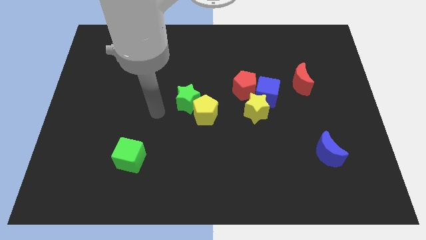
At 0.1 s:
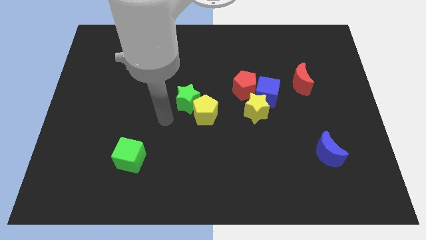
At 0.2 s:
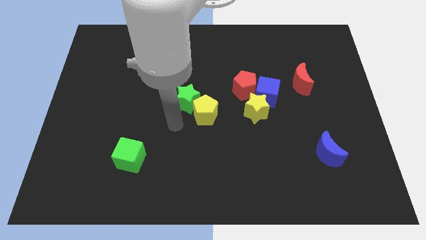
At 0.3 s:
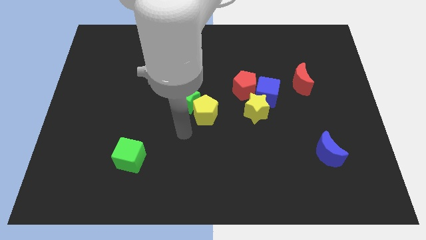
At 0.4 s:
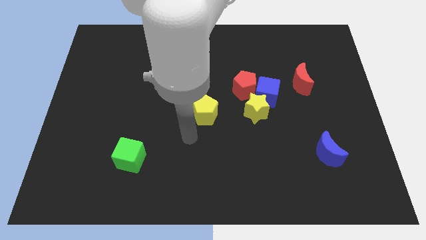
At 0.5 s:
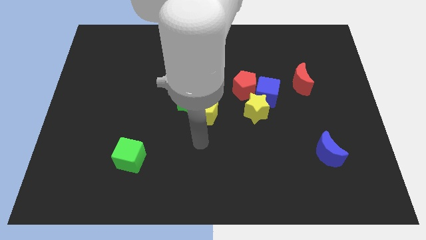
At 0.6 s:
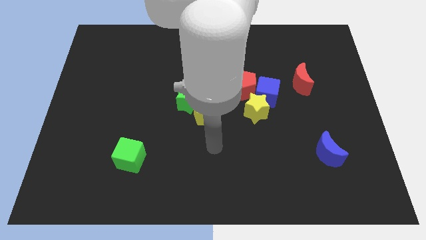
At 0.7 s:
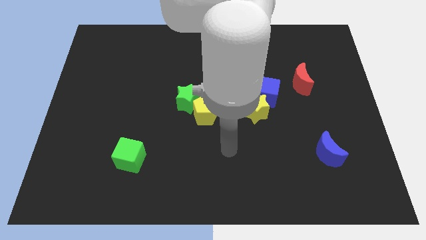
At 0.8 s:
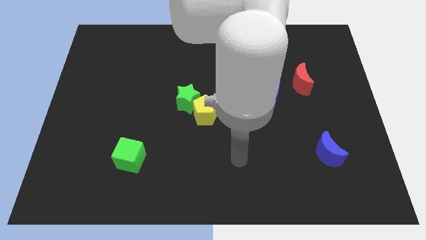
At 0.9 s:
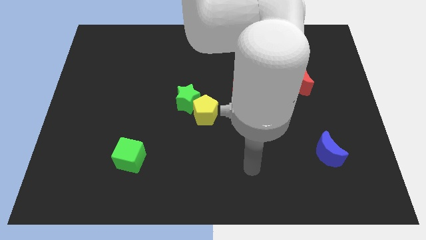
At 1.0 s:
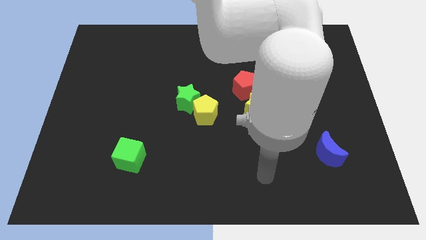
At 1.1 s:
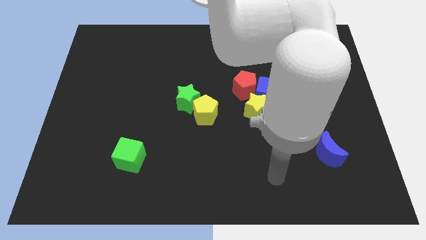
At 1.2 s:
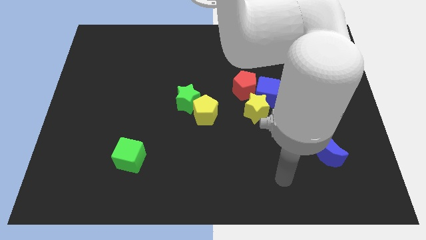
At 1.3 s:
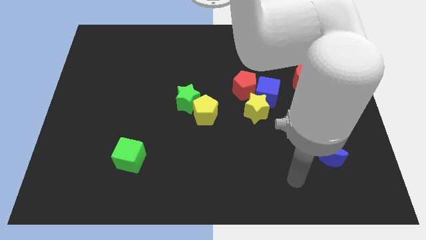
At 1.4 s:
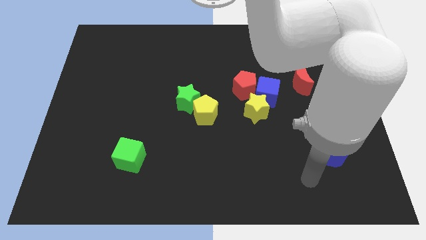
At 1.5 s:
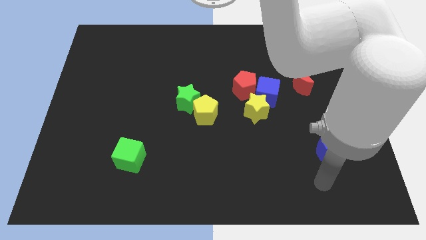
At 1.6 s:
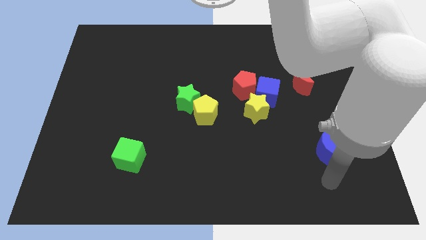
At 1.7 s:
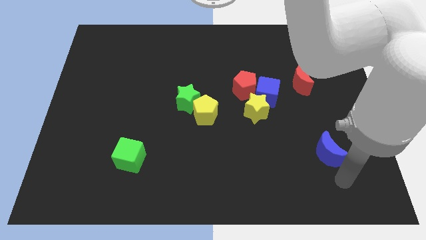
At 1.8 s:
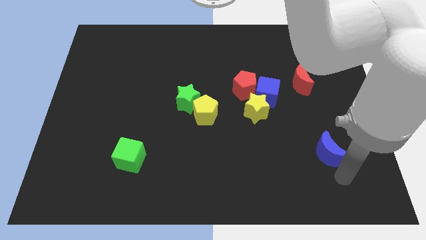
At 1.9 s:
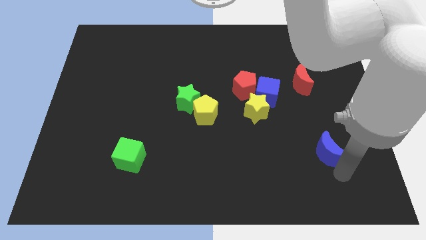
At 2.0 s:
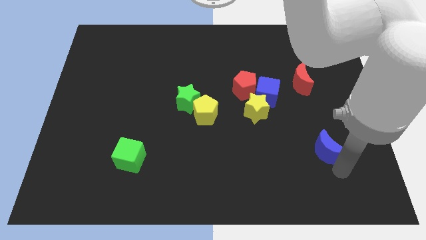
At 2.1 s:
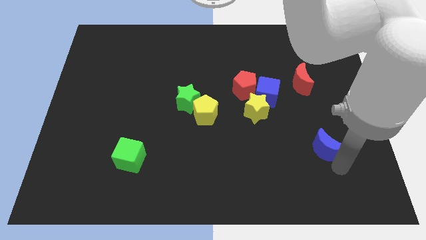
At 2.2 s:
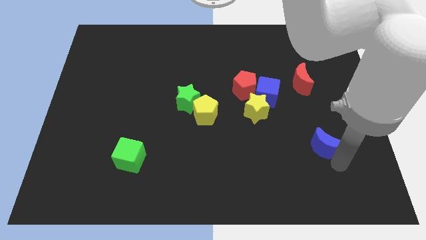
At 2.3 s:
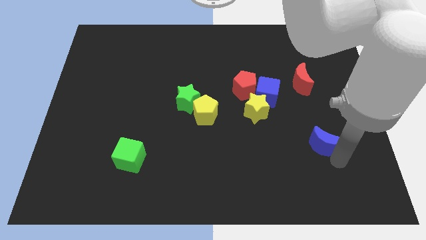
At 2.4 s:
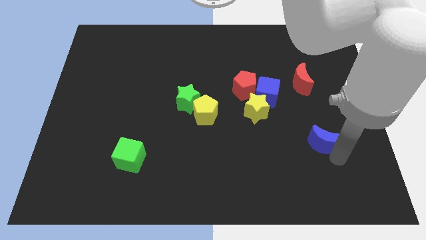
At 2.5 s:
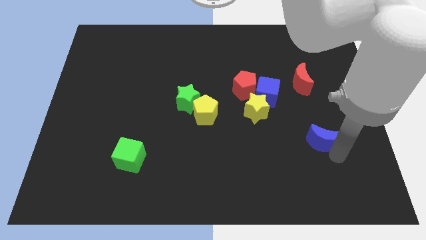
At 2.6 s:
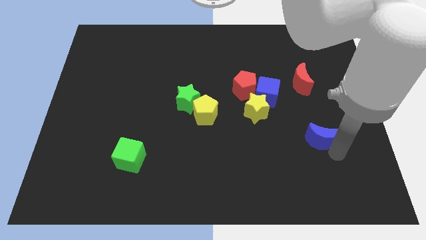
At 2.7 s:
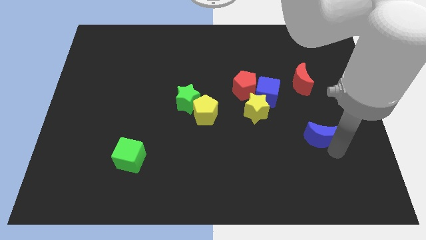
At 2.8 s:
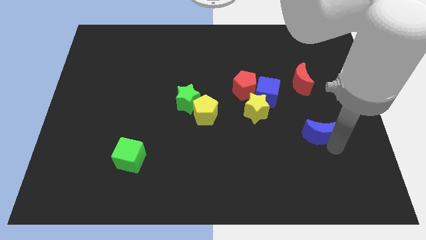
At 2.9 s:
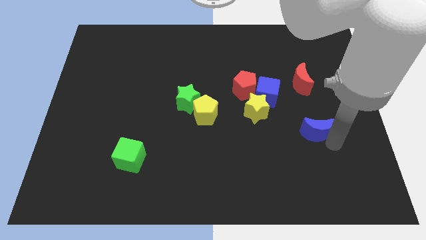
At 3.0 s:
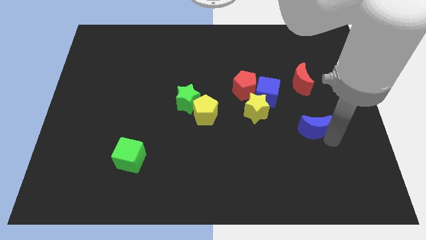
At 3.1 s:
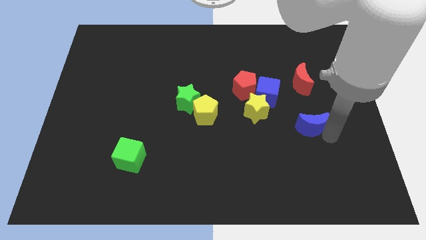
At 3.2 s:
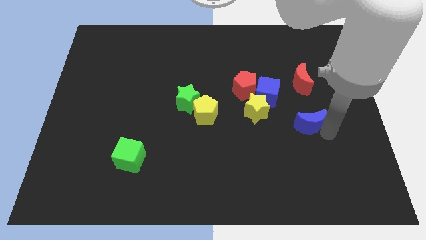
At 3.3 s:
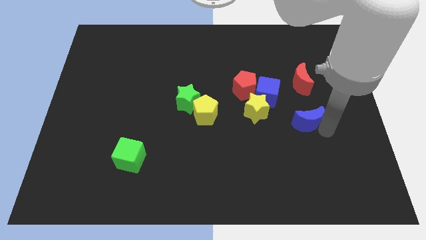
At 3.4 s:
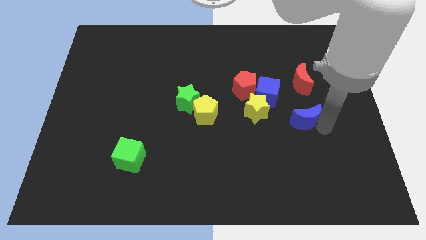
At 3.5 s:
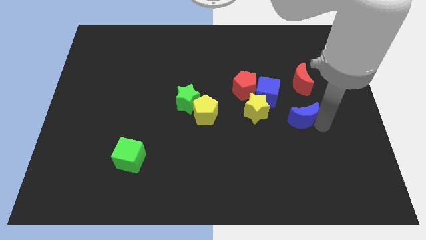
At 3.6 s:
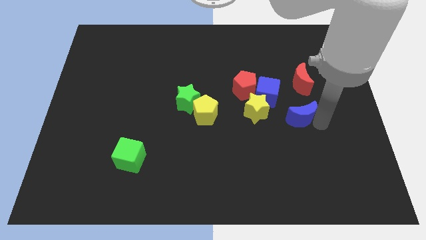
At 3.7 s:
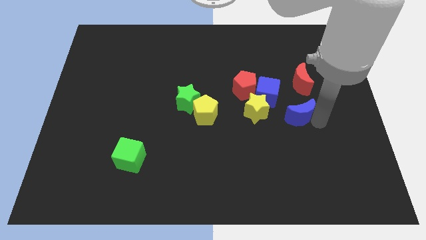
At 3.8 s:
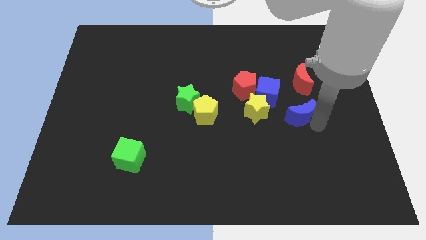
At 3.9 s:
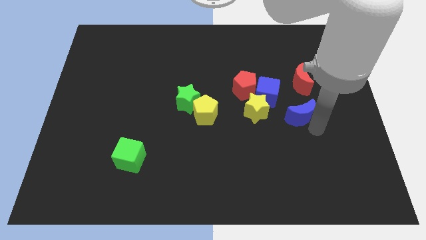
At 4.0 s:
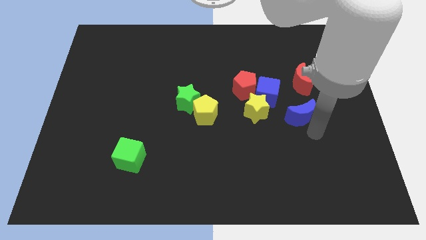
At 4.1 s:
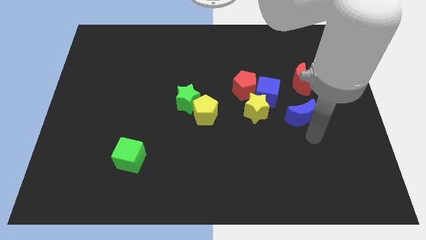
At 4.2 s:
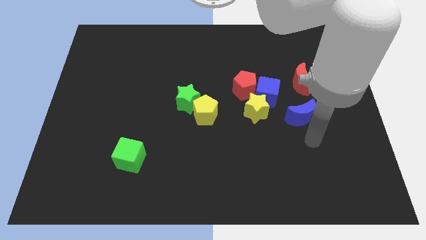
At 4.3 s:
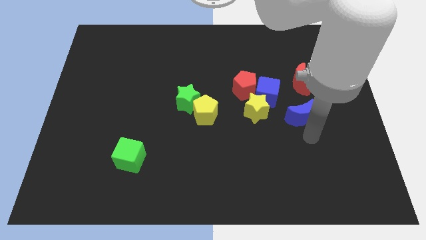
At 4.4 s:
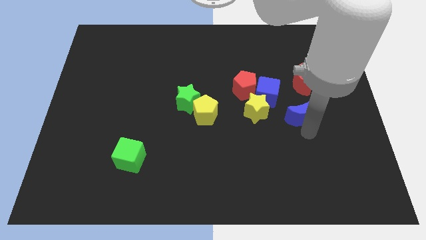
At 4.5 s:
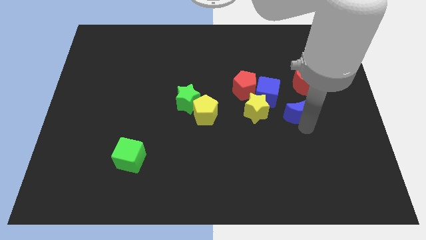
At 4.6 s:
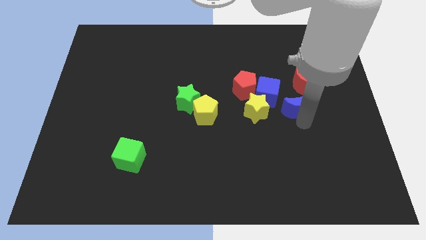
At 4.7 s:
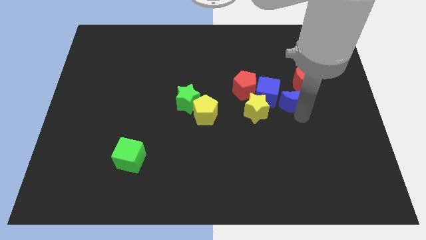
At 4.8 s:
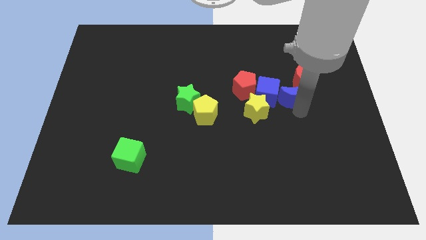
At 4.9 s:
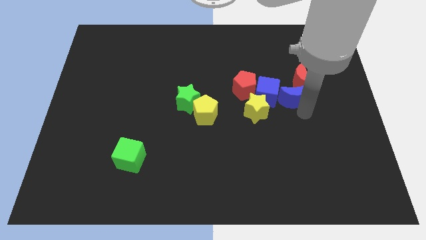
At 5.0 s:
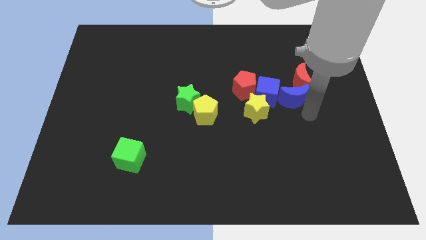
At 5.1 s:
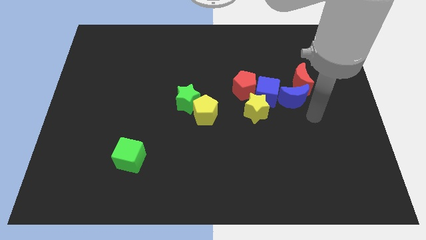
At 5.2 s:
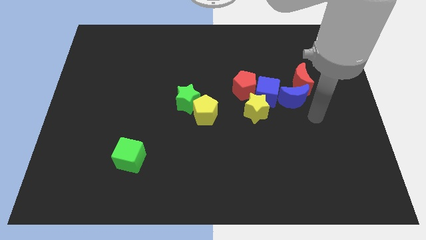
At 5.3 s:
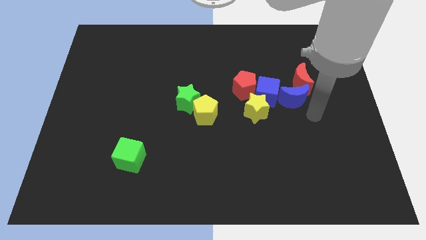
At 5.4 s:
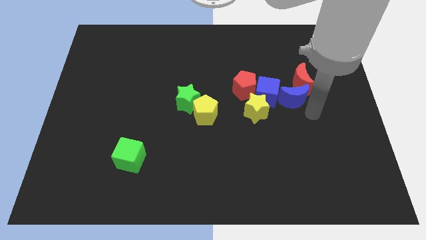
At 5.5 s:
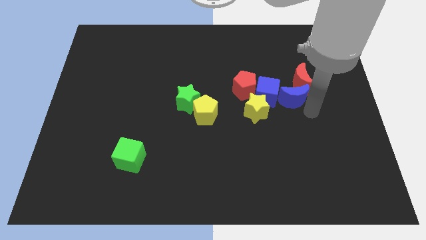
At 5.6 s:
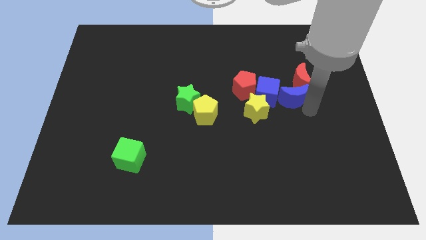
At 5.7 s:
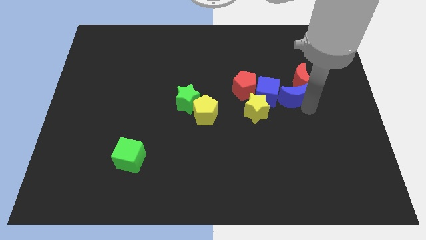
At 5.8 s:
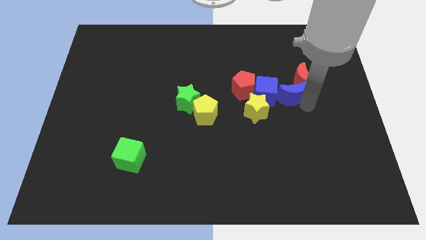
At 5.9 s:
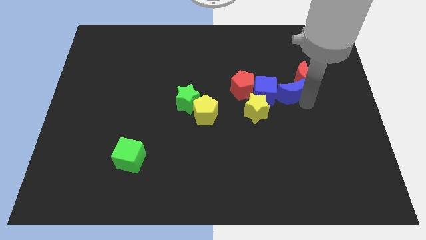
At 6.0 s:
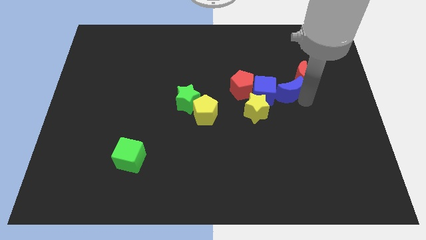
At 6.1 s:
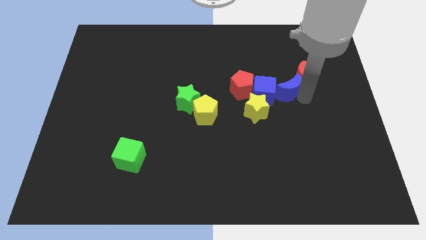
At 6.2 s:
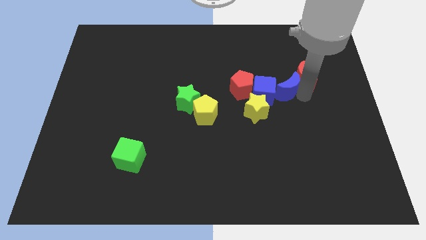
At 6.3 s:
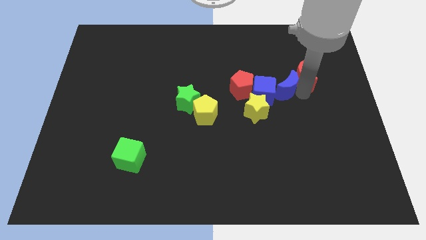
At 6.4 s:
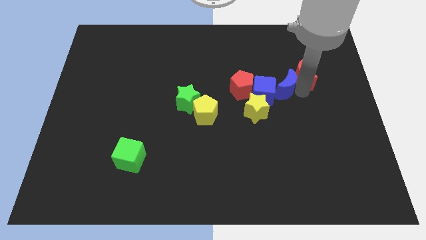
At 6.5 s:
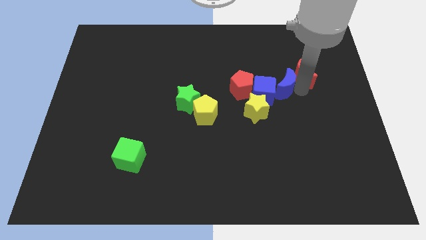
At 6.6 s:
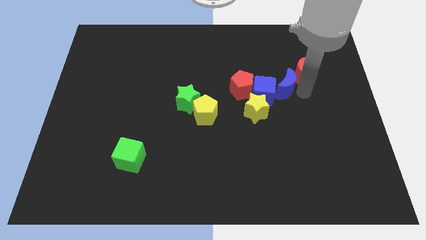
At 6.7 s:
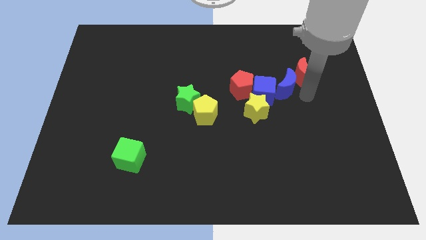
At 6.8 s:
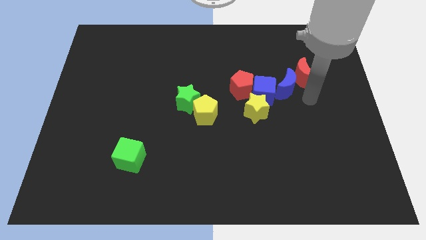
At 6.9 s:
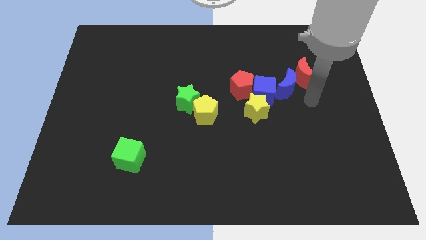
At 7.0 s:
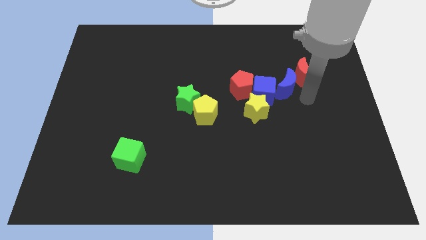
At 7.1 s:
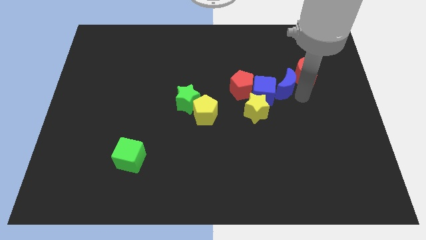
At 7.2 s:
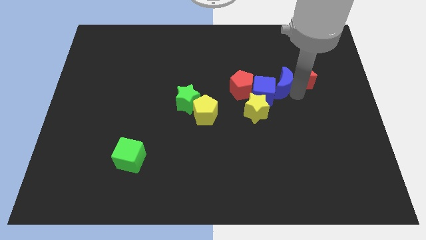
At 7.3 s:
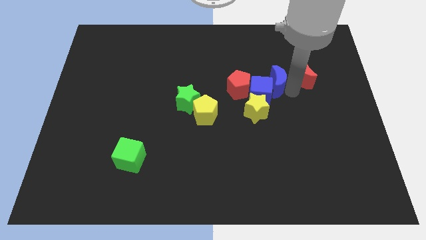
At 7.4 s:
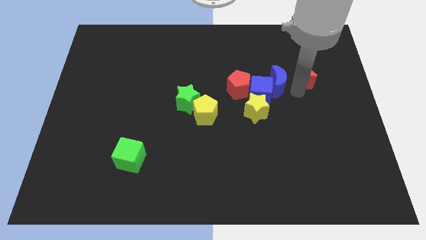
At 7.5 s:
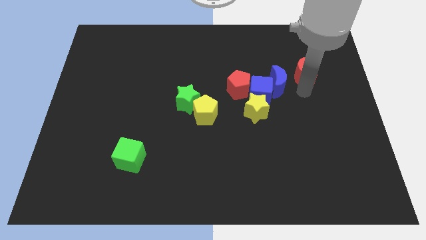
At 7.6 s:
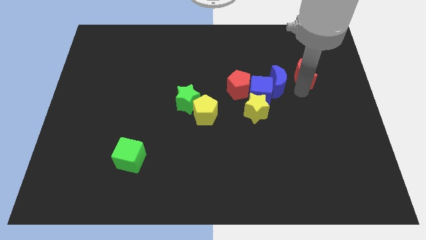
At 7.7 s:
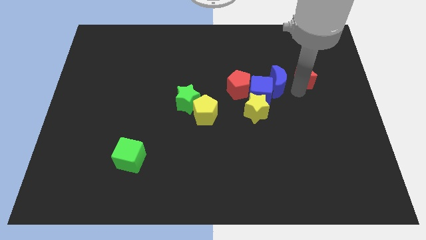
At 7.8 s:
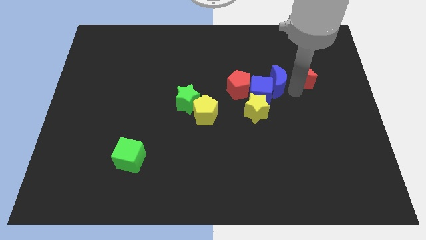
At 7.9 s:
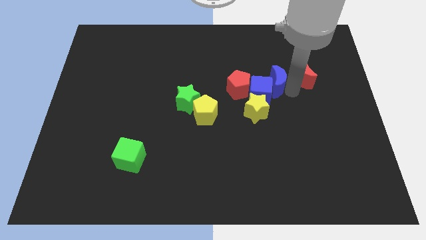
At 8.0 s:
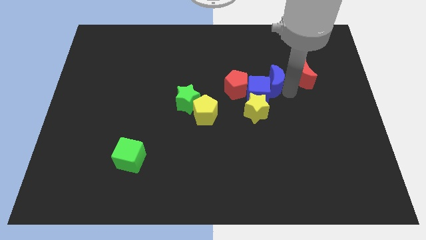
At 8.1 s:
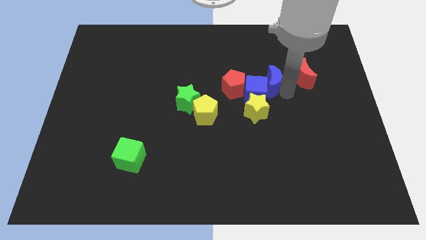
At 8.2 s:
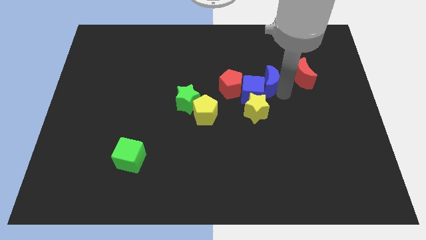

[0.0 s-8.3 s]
put the blue moon to the top of the yellow star
